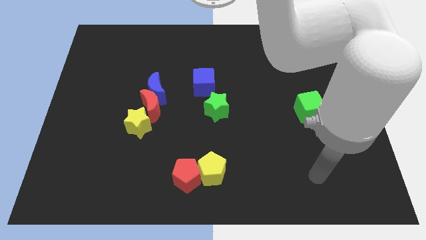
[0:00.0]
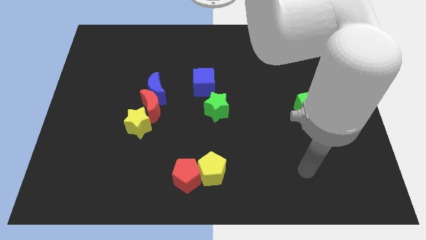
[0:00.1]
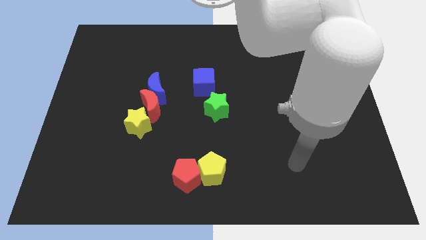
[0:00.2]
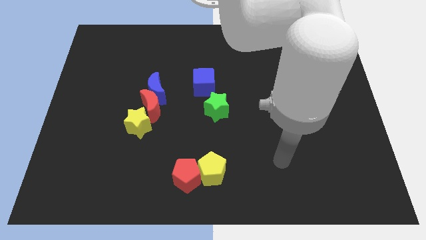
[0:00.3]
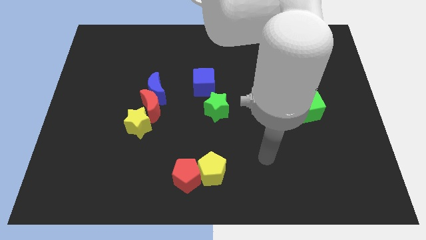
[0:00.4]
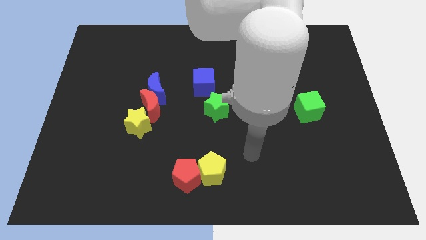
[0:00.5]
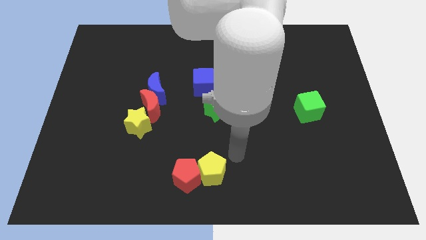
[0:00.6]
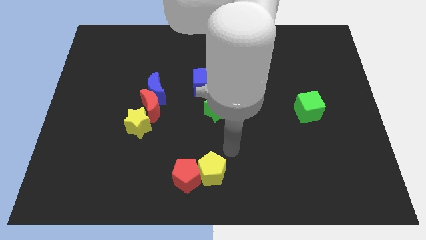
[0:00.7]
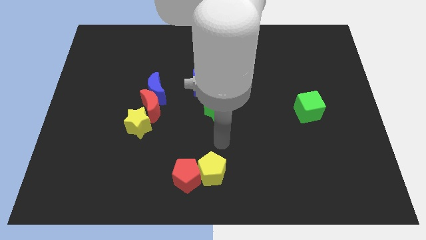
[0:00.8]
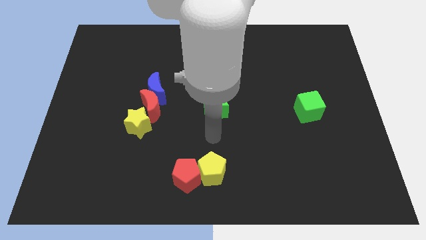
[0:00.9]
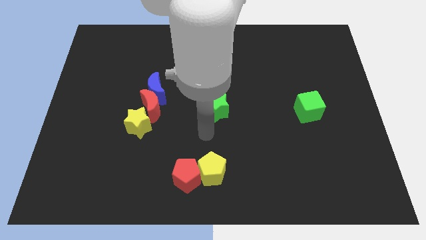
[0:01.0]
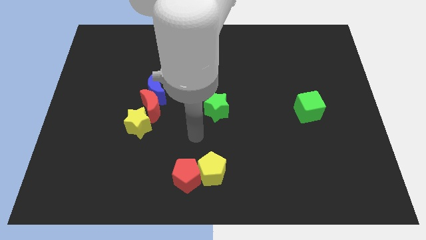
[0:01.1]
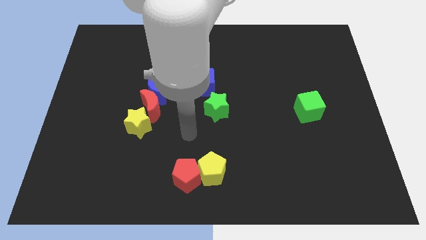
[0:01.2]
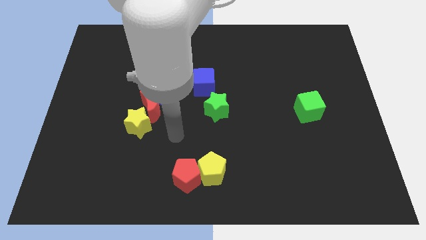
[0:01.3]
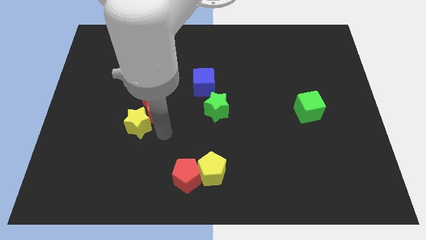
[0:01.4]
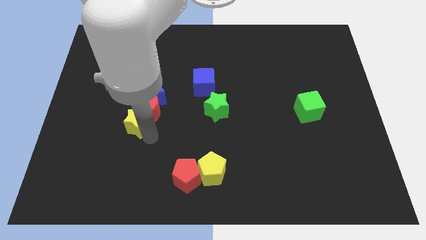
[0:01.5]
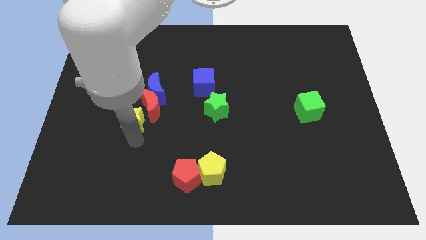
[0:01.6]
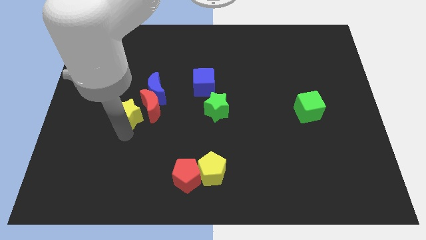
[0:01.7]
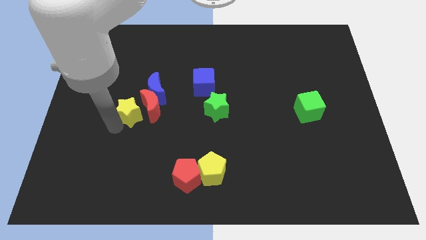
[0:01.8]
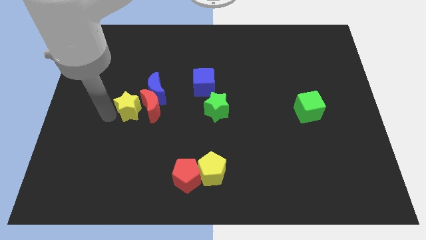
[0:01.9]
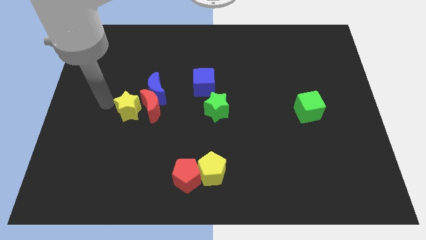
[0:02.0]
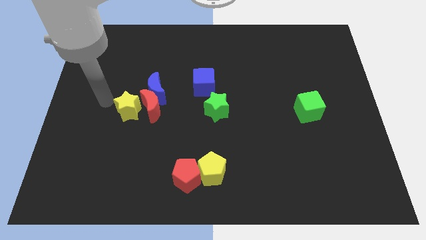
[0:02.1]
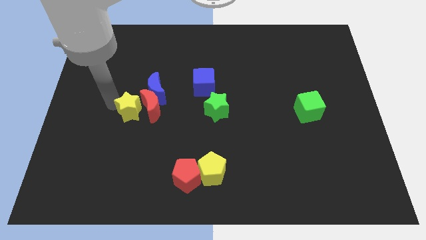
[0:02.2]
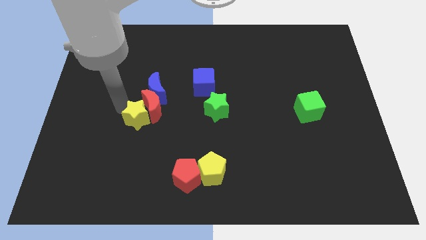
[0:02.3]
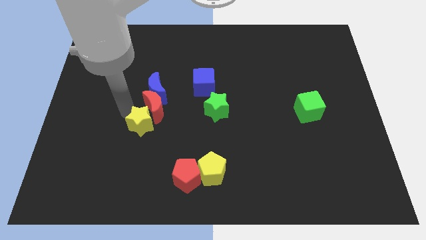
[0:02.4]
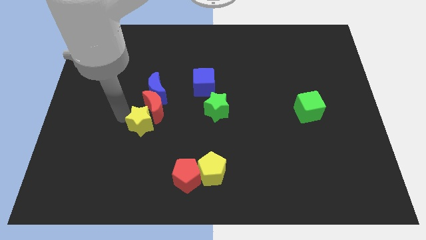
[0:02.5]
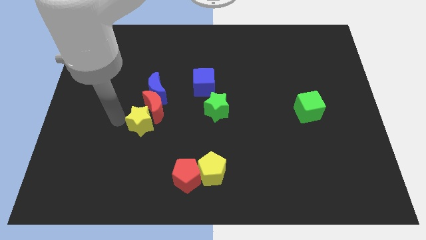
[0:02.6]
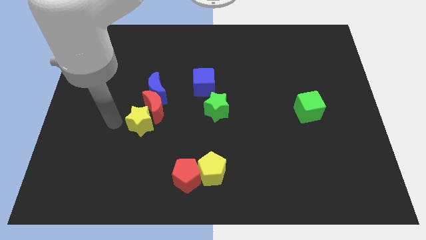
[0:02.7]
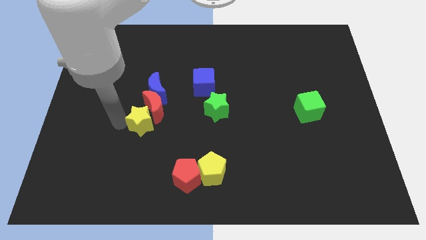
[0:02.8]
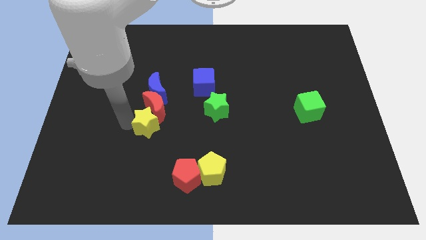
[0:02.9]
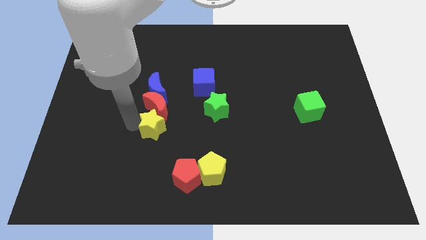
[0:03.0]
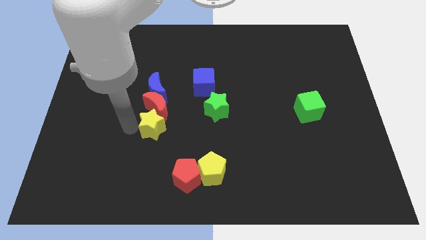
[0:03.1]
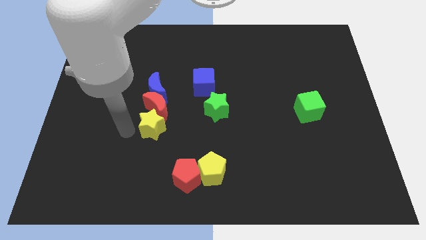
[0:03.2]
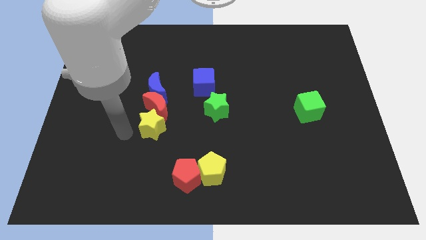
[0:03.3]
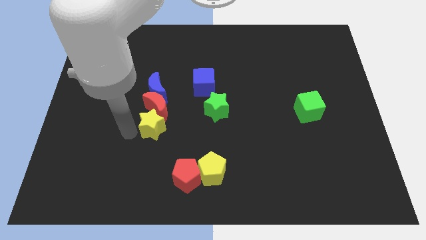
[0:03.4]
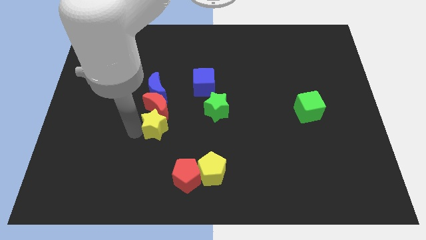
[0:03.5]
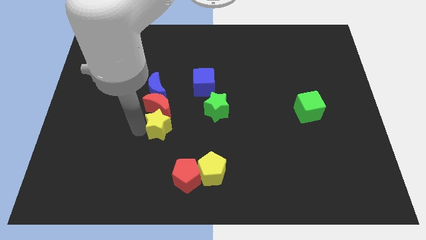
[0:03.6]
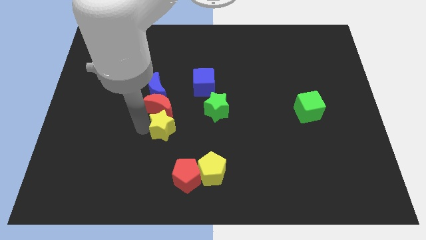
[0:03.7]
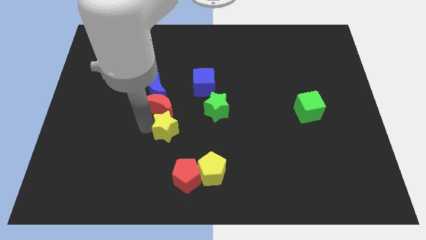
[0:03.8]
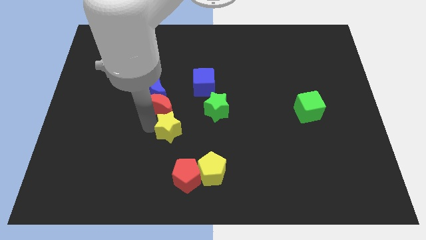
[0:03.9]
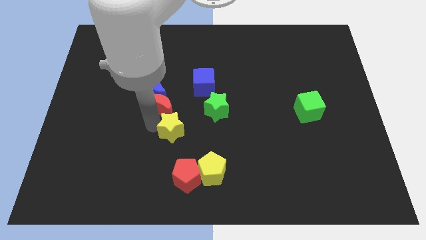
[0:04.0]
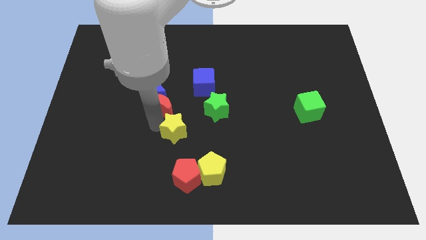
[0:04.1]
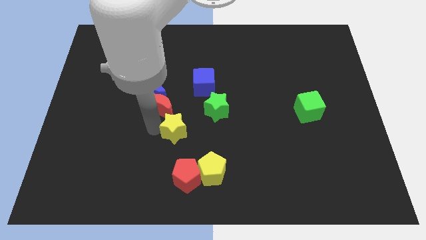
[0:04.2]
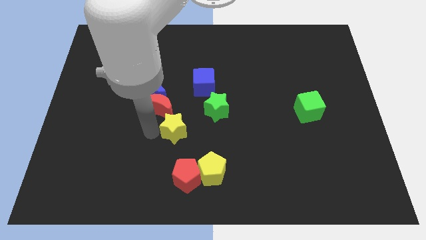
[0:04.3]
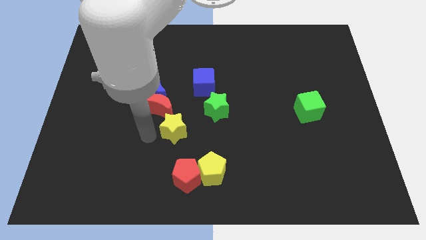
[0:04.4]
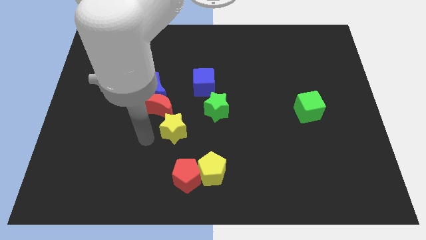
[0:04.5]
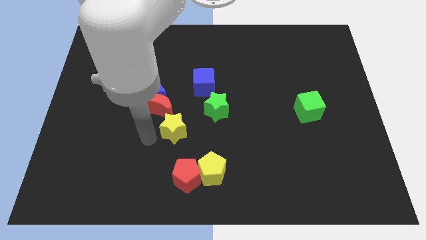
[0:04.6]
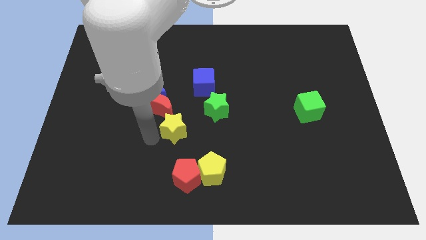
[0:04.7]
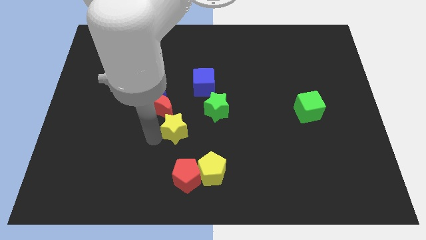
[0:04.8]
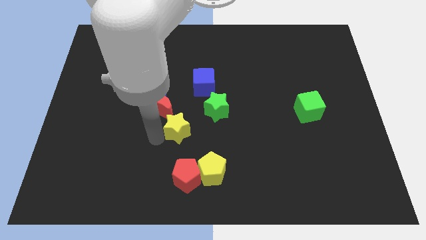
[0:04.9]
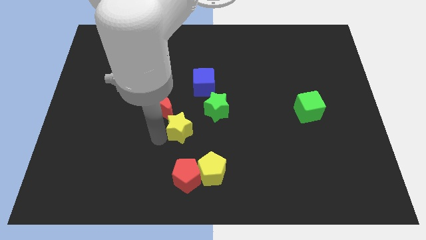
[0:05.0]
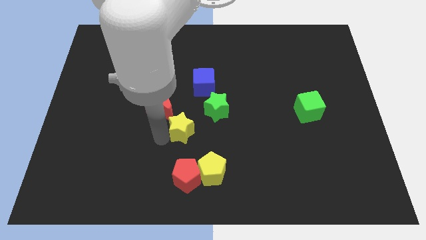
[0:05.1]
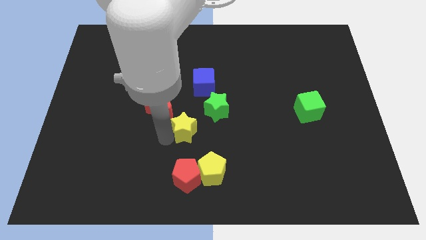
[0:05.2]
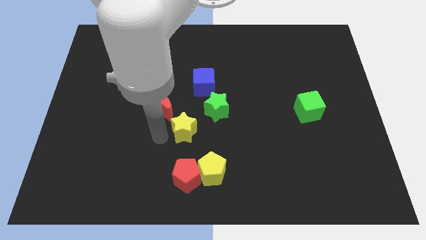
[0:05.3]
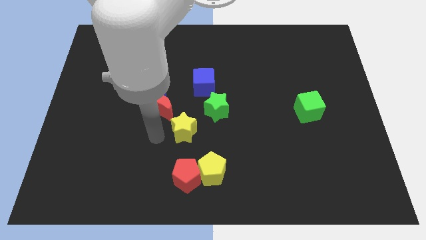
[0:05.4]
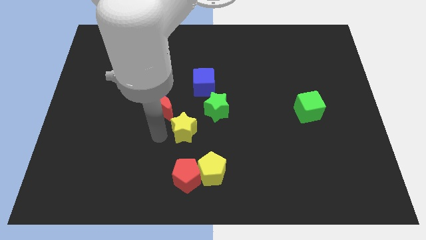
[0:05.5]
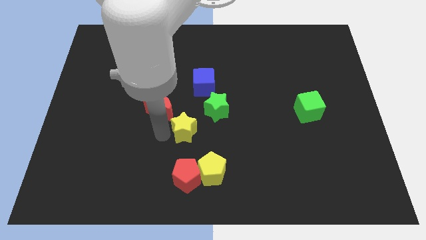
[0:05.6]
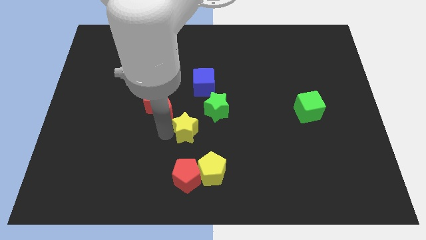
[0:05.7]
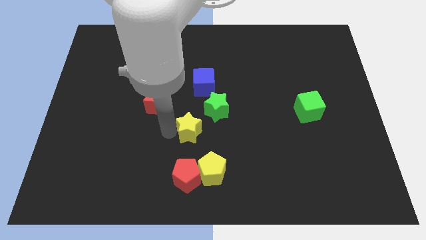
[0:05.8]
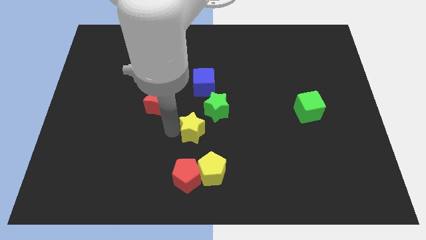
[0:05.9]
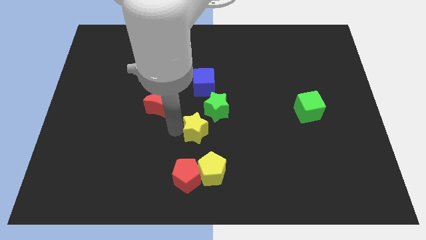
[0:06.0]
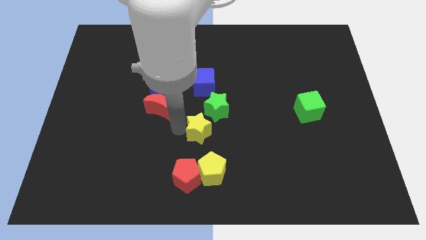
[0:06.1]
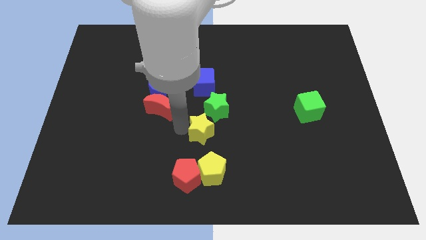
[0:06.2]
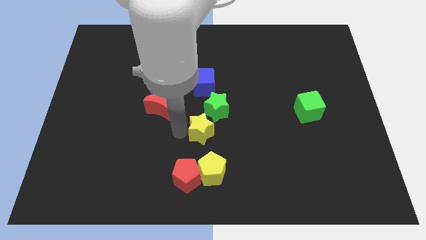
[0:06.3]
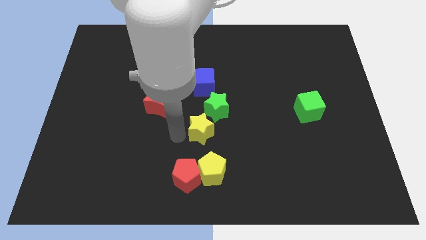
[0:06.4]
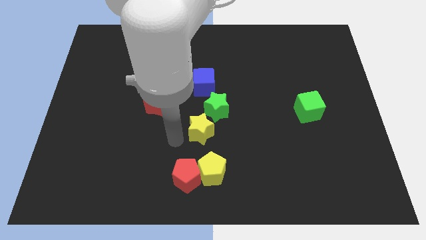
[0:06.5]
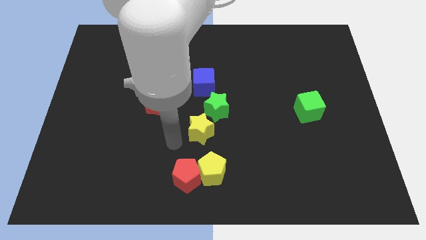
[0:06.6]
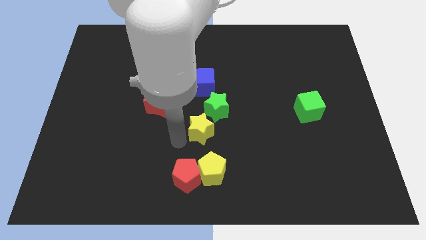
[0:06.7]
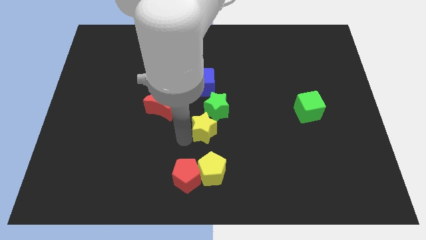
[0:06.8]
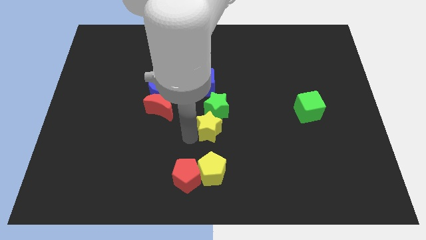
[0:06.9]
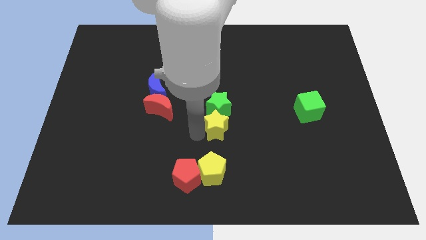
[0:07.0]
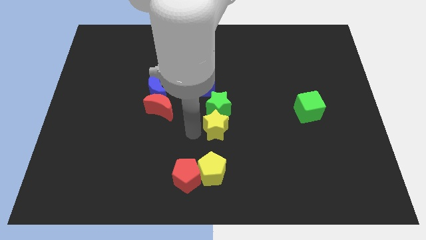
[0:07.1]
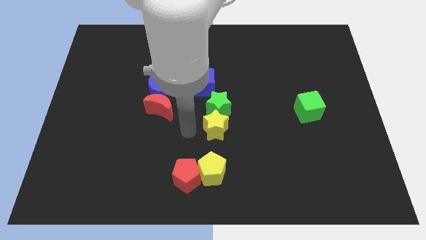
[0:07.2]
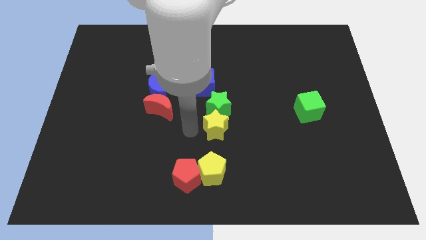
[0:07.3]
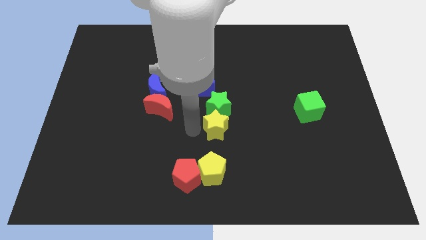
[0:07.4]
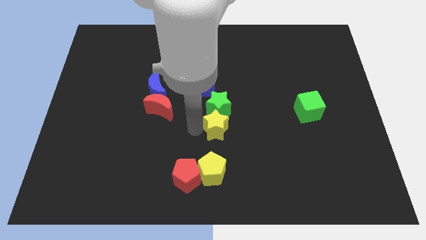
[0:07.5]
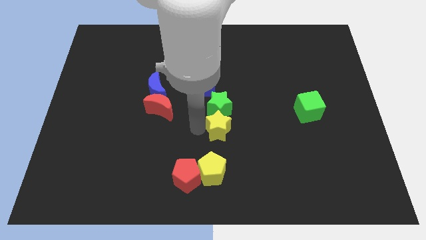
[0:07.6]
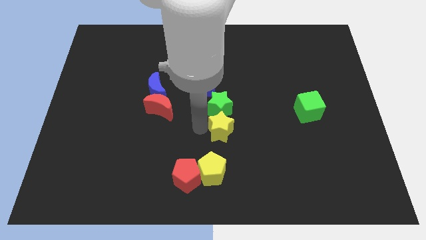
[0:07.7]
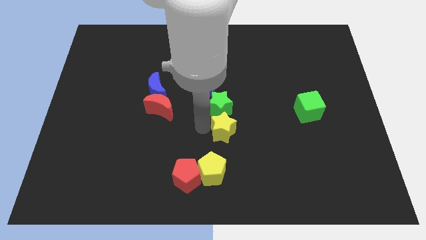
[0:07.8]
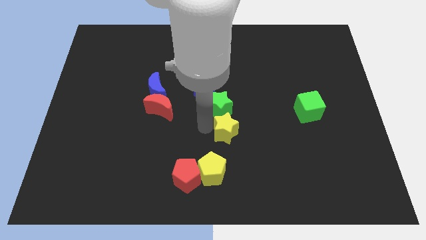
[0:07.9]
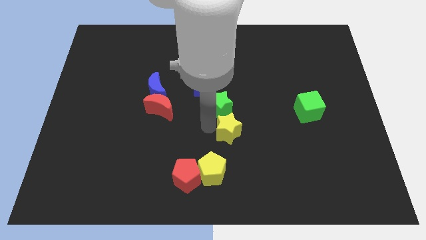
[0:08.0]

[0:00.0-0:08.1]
push the yellow star to the right
